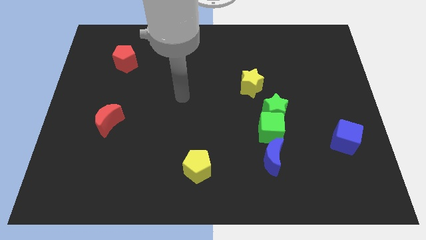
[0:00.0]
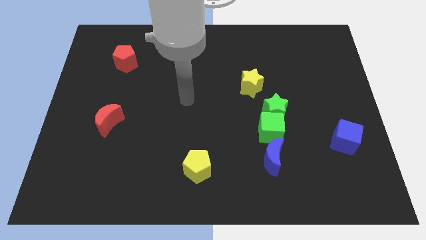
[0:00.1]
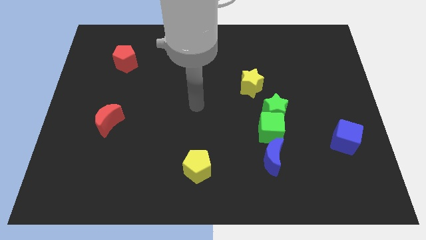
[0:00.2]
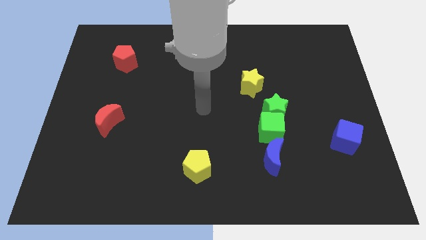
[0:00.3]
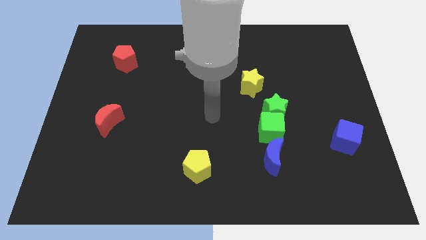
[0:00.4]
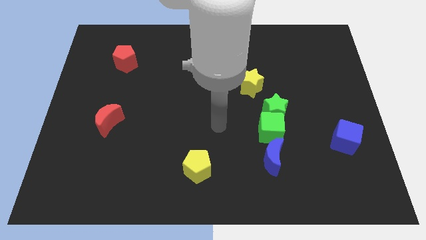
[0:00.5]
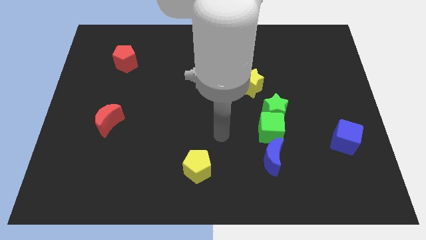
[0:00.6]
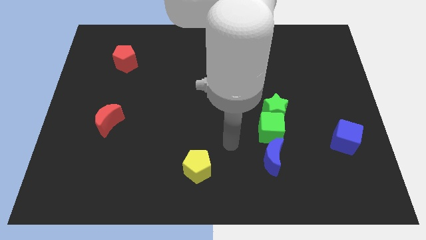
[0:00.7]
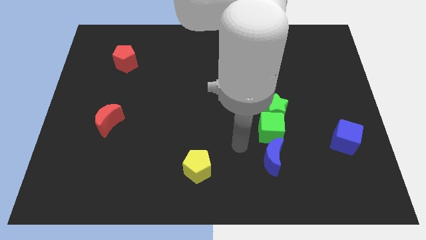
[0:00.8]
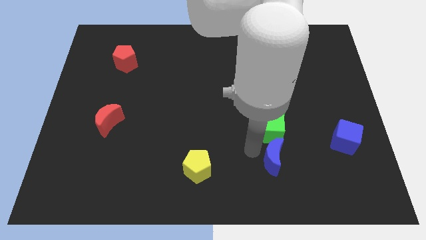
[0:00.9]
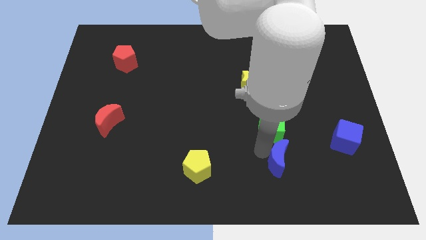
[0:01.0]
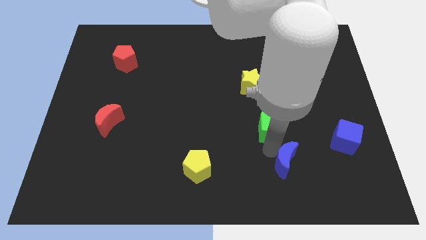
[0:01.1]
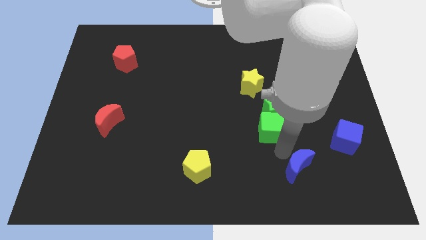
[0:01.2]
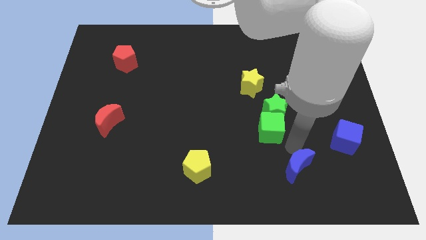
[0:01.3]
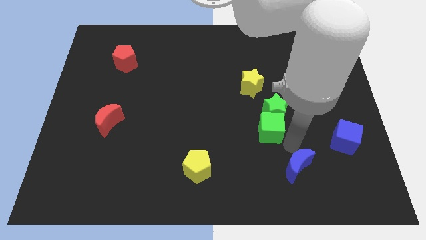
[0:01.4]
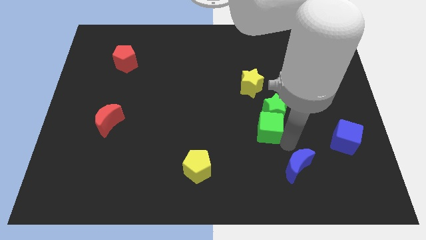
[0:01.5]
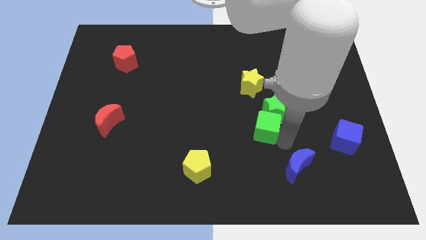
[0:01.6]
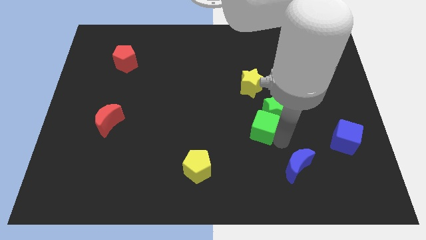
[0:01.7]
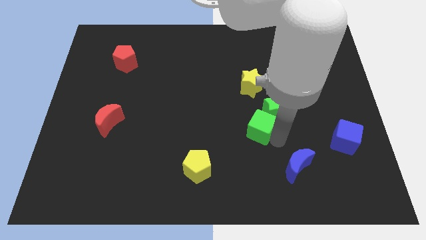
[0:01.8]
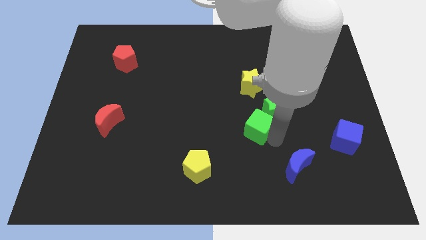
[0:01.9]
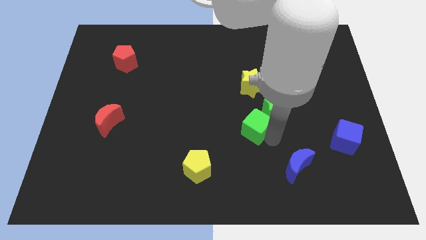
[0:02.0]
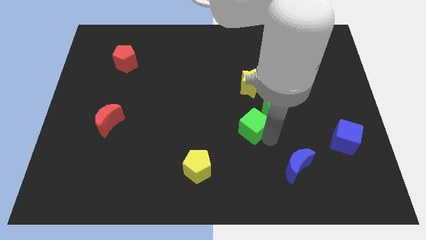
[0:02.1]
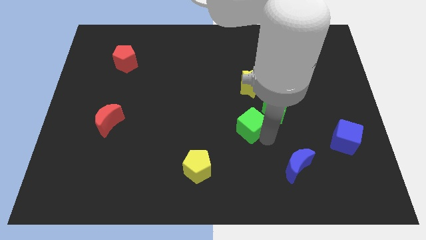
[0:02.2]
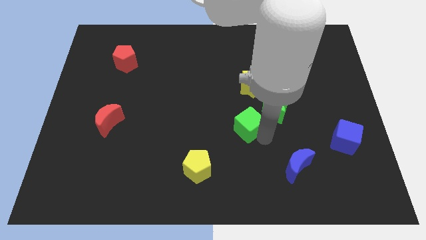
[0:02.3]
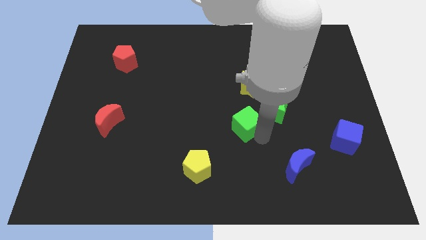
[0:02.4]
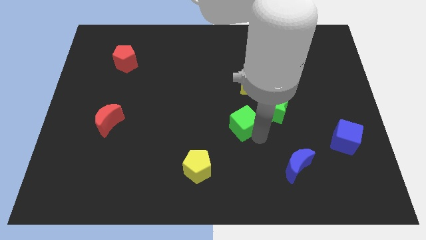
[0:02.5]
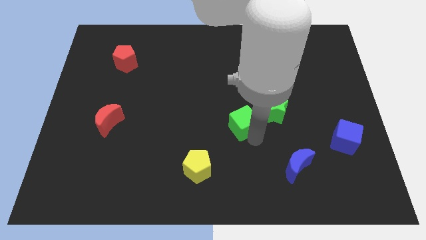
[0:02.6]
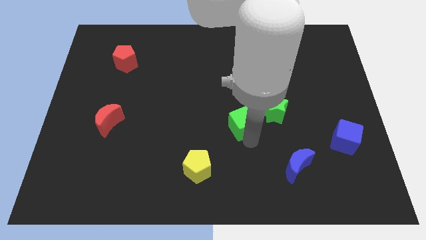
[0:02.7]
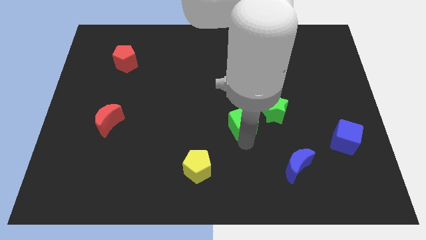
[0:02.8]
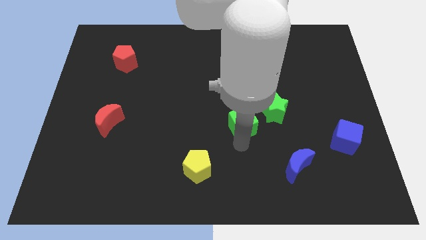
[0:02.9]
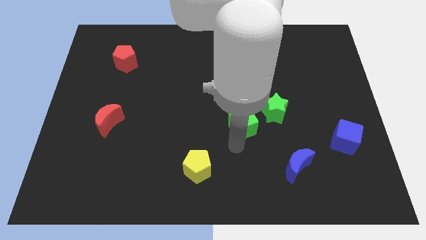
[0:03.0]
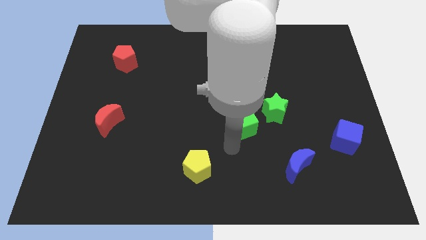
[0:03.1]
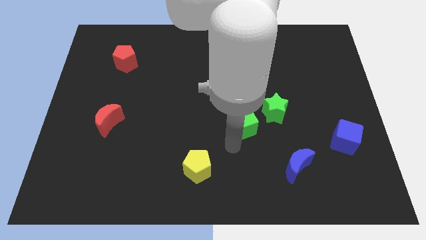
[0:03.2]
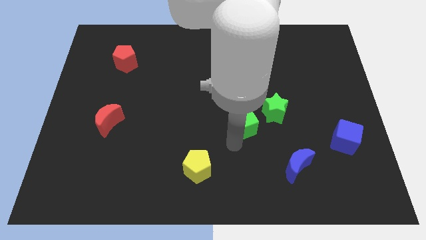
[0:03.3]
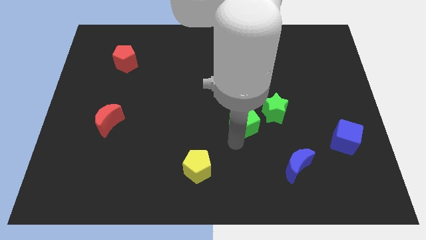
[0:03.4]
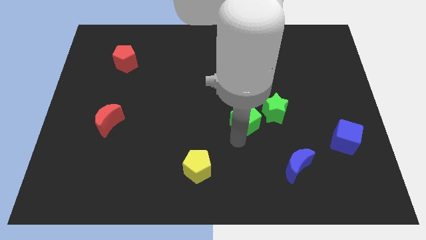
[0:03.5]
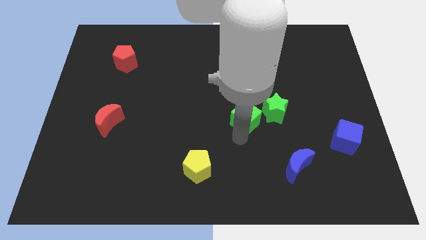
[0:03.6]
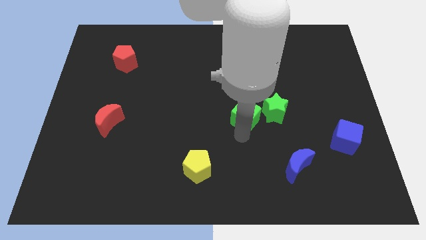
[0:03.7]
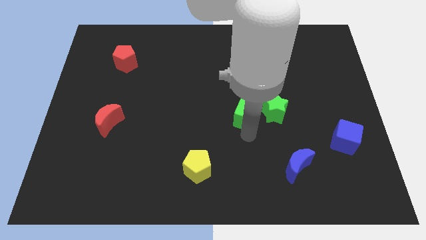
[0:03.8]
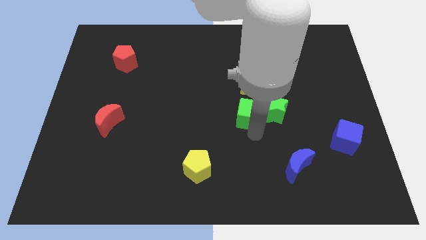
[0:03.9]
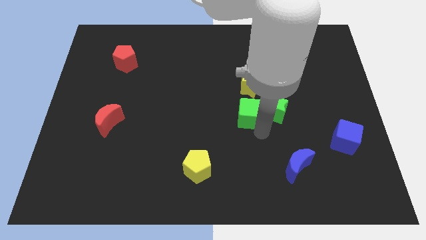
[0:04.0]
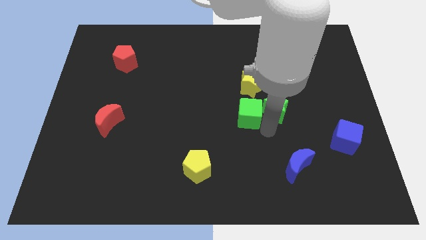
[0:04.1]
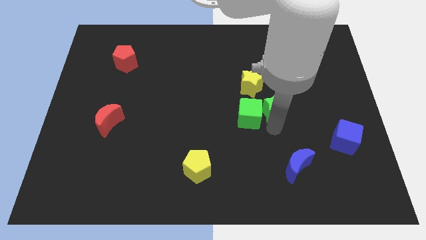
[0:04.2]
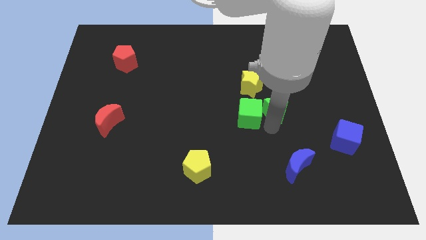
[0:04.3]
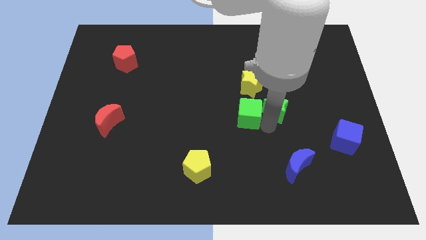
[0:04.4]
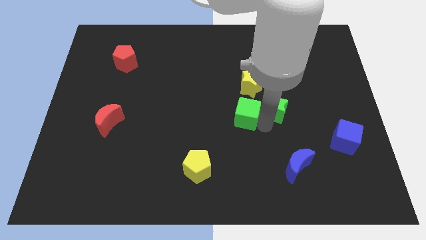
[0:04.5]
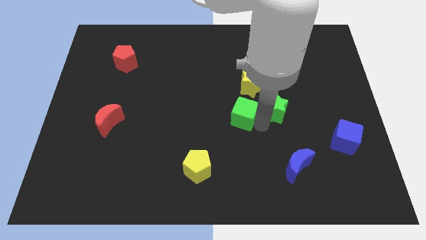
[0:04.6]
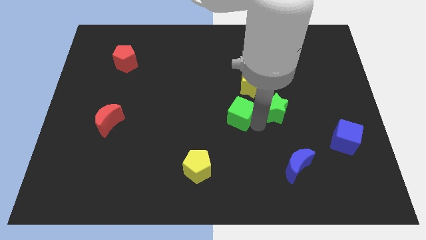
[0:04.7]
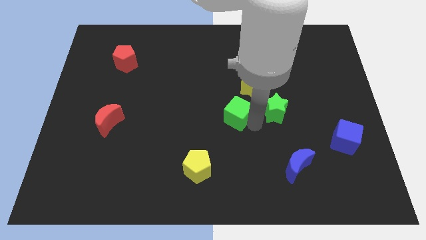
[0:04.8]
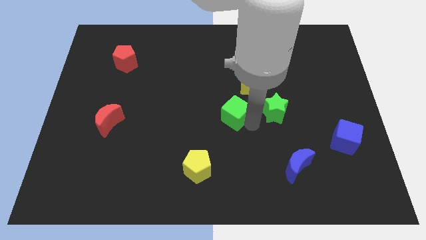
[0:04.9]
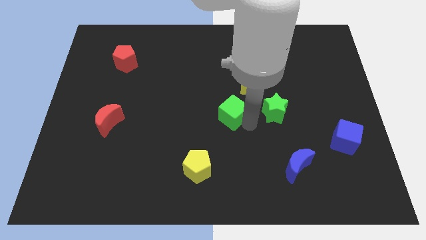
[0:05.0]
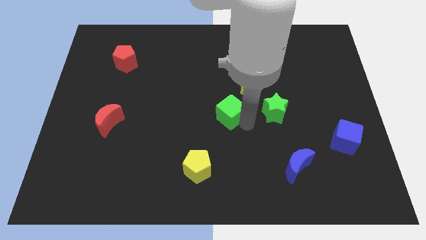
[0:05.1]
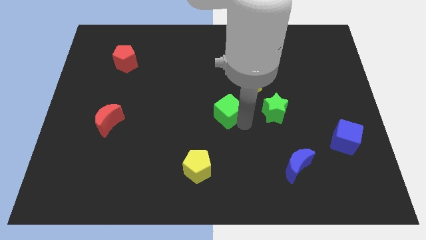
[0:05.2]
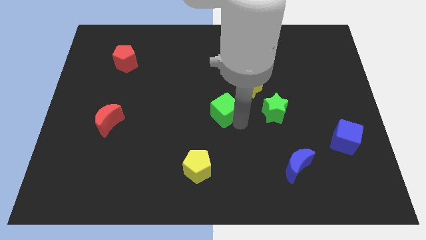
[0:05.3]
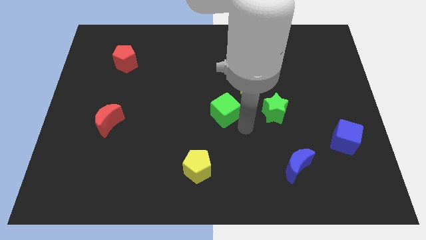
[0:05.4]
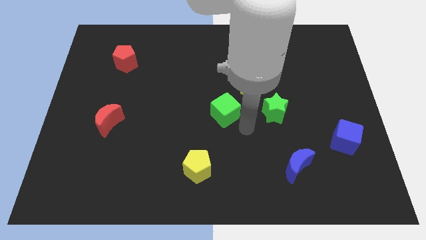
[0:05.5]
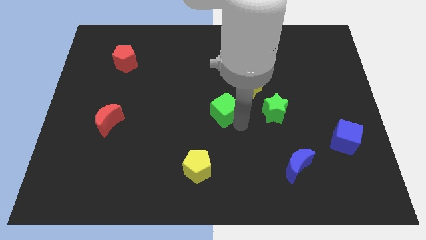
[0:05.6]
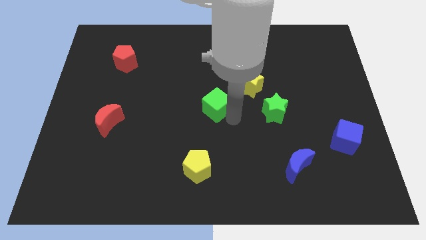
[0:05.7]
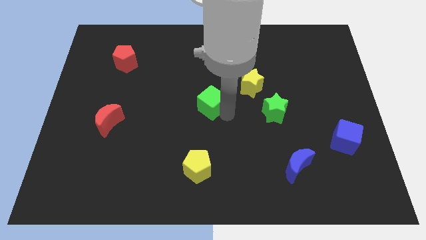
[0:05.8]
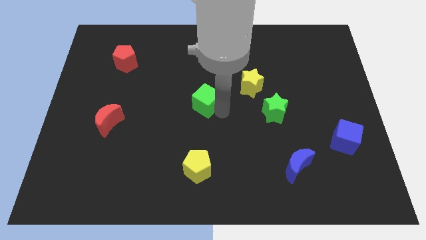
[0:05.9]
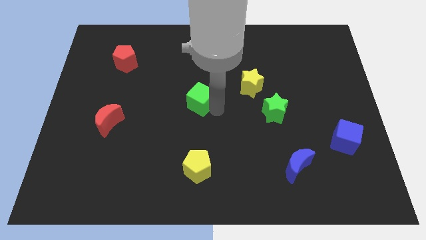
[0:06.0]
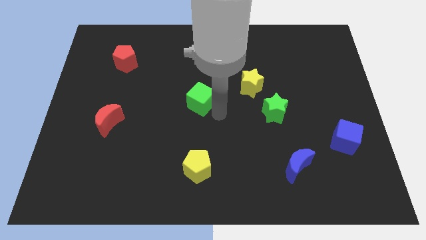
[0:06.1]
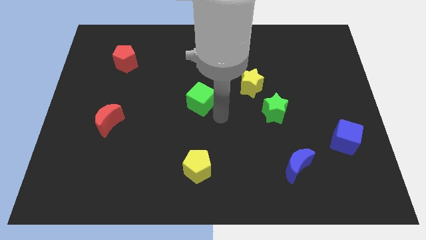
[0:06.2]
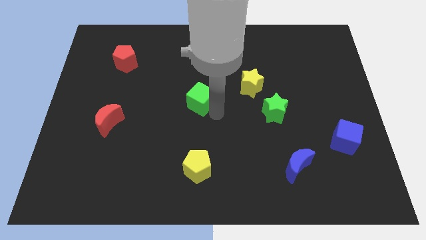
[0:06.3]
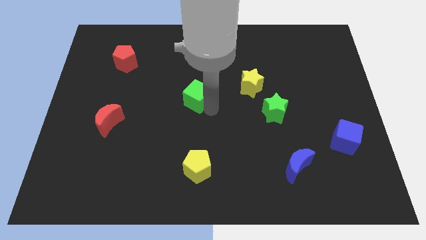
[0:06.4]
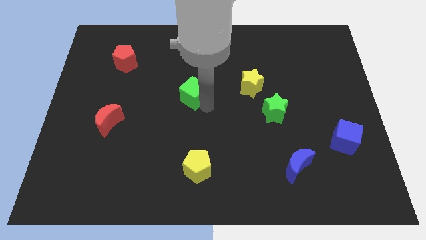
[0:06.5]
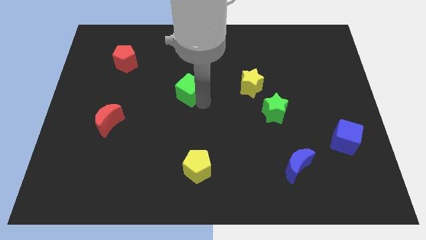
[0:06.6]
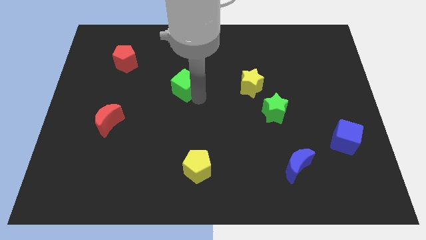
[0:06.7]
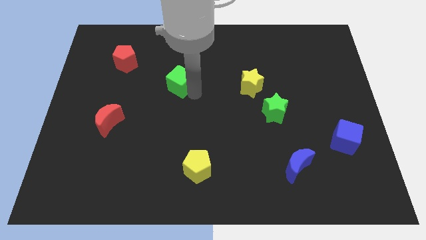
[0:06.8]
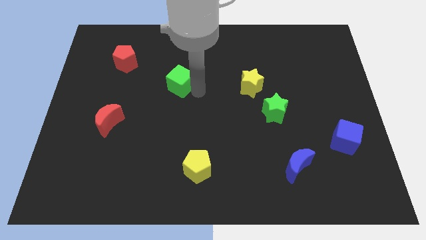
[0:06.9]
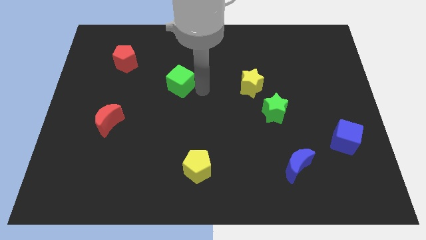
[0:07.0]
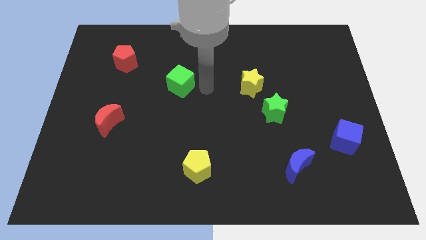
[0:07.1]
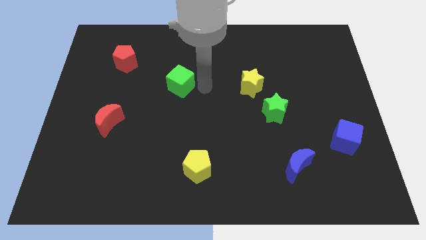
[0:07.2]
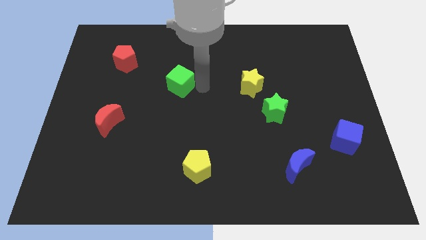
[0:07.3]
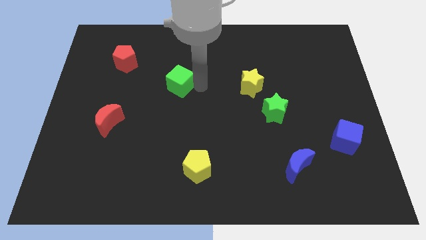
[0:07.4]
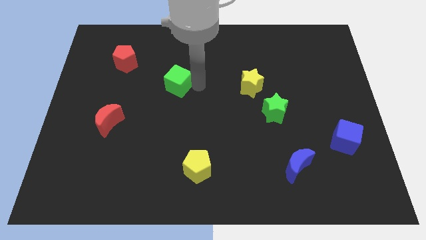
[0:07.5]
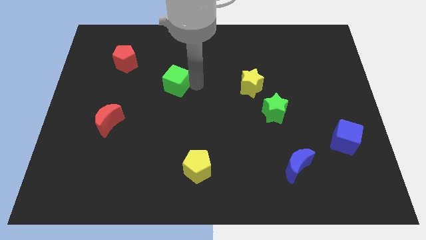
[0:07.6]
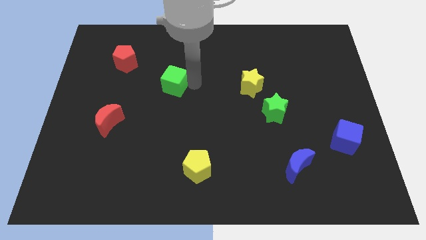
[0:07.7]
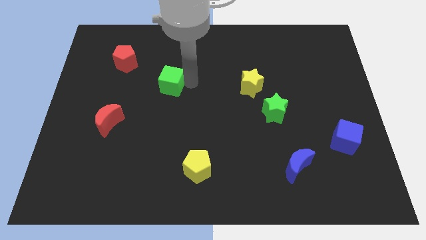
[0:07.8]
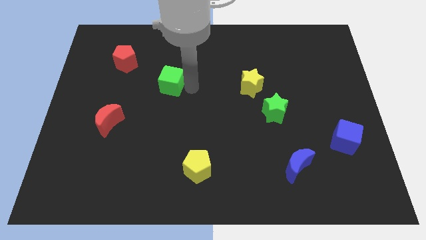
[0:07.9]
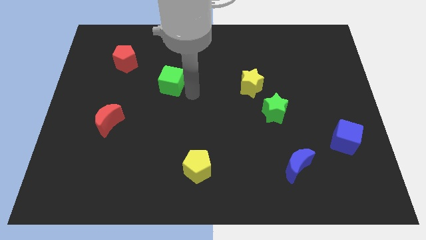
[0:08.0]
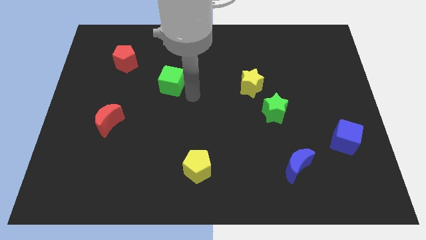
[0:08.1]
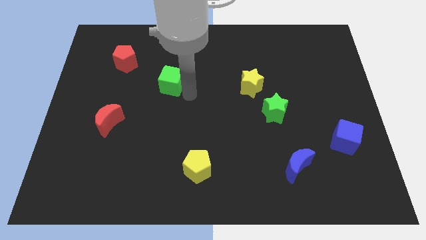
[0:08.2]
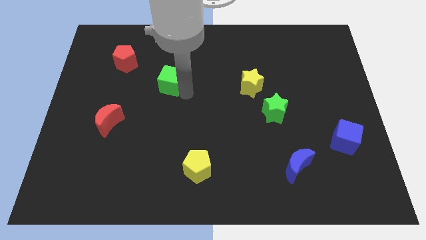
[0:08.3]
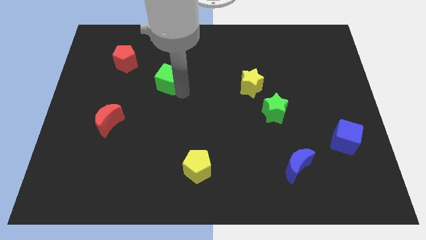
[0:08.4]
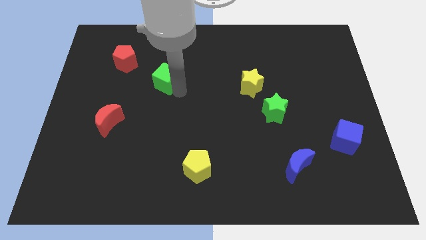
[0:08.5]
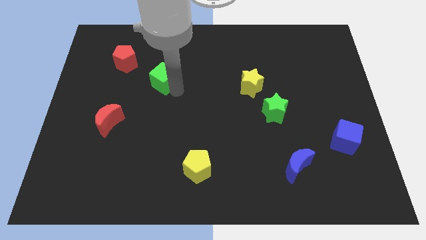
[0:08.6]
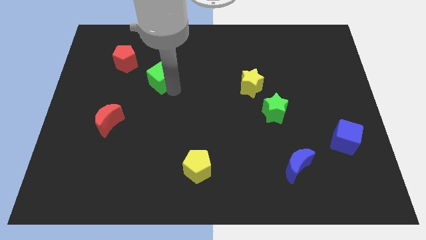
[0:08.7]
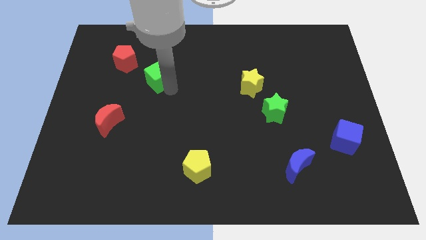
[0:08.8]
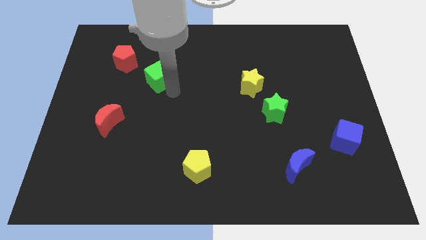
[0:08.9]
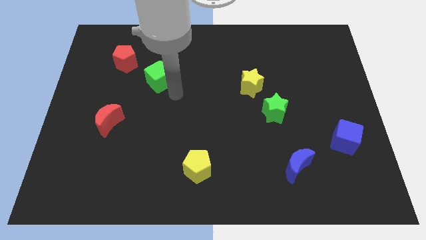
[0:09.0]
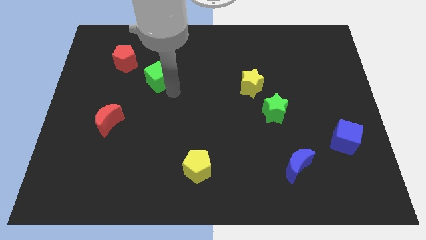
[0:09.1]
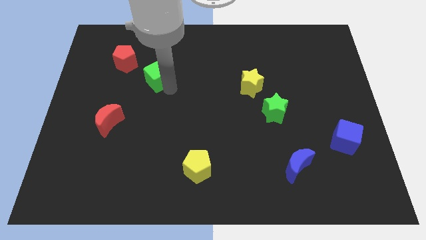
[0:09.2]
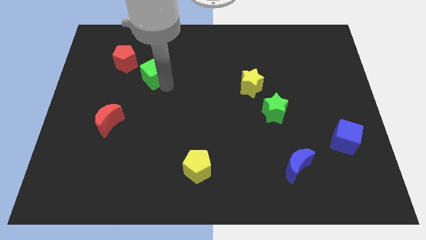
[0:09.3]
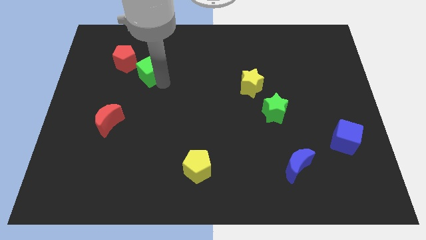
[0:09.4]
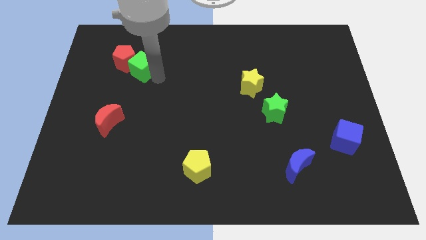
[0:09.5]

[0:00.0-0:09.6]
slide the green cube next to the red pentagon
